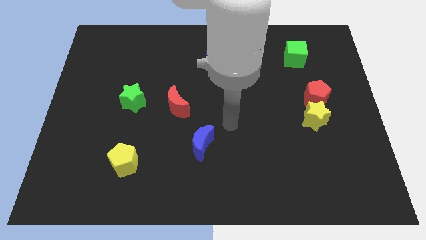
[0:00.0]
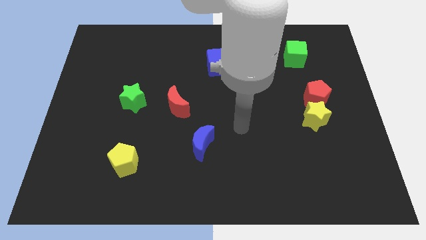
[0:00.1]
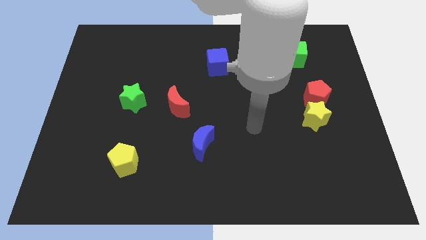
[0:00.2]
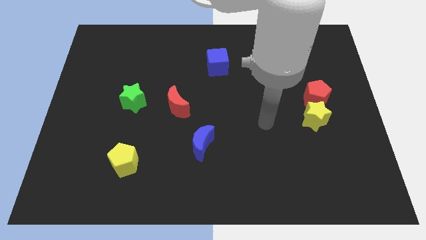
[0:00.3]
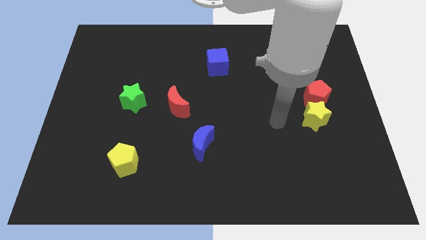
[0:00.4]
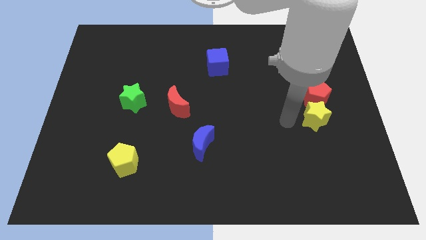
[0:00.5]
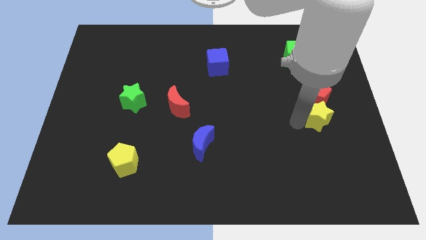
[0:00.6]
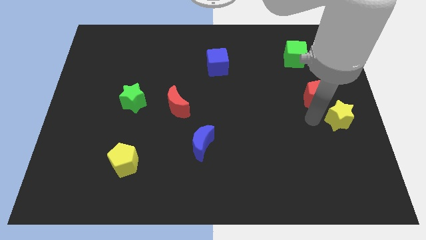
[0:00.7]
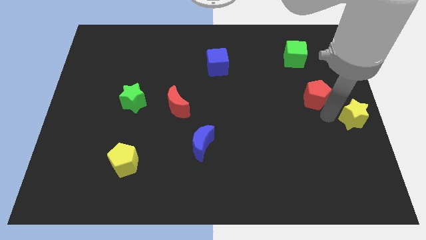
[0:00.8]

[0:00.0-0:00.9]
pull the red pentagon apart from the yellow star

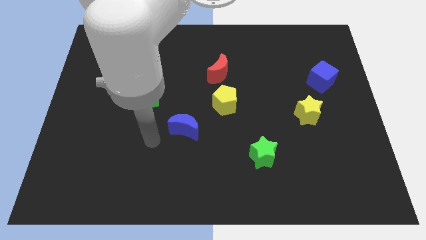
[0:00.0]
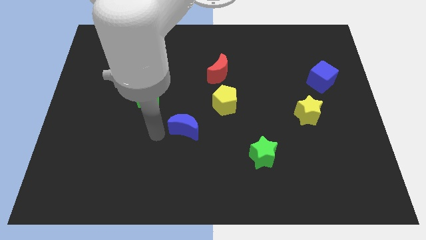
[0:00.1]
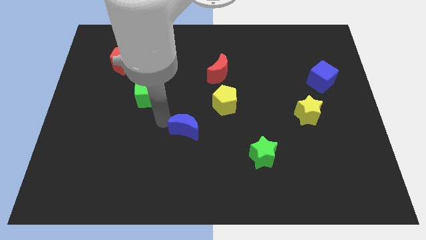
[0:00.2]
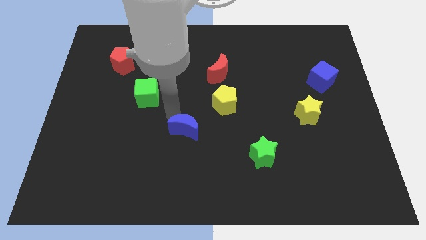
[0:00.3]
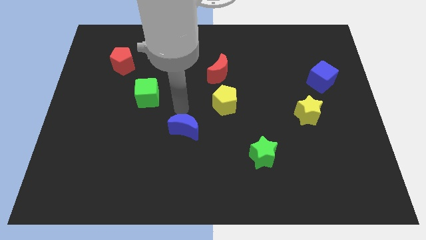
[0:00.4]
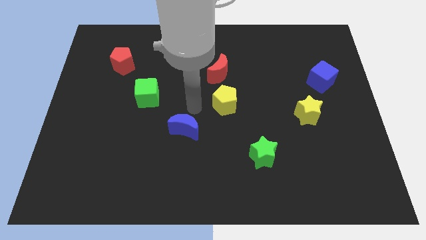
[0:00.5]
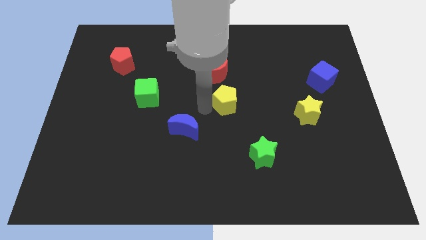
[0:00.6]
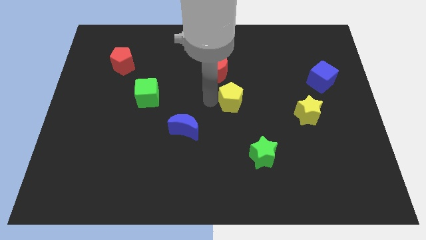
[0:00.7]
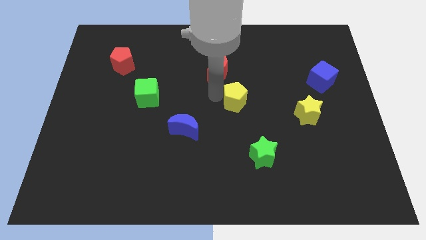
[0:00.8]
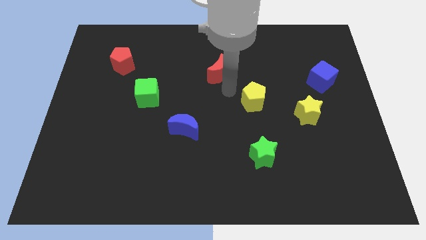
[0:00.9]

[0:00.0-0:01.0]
pull the red moon apart from the yellow pentagon

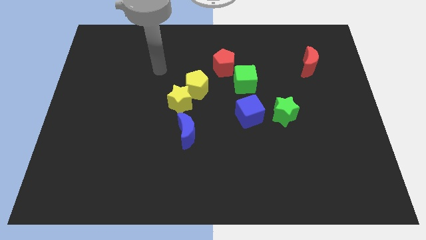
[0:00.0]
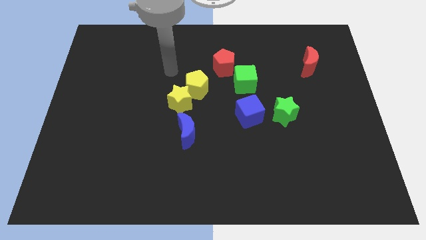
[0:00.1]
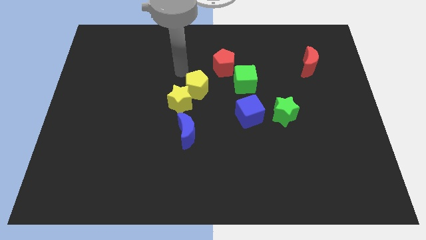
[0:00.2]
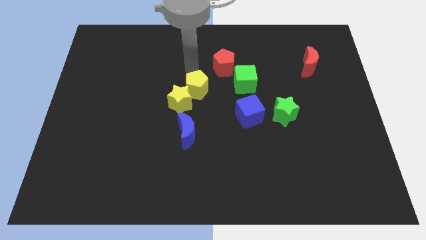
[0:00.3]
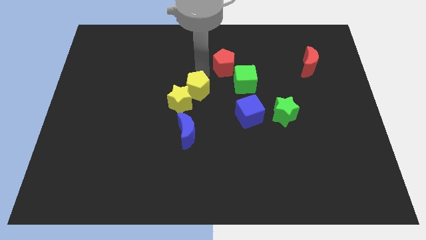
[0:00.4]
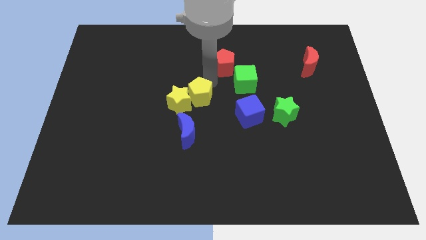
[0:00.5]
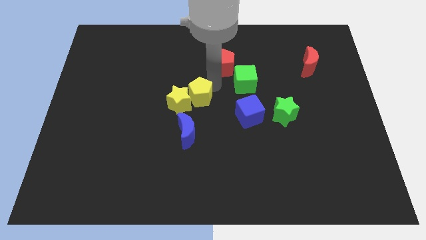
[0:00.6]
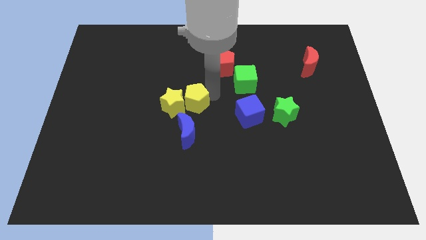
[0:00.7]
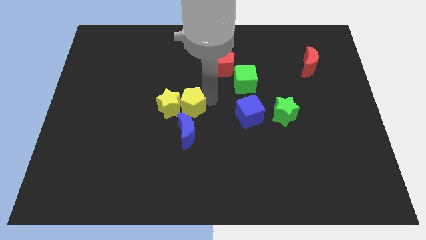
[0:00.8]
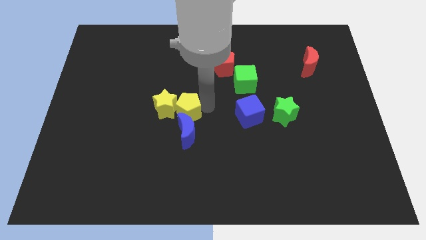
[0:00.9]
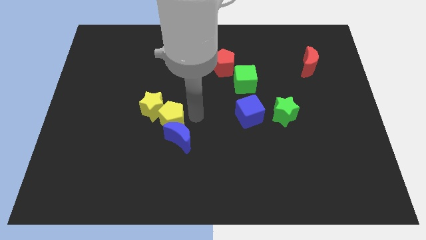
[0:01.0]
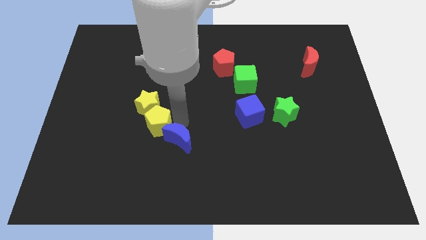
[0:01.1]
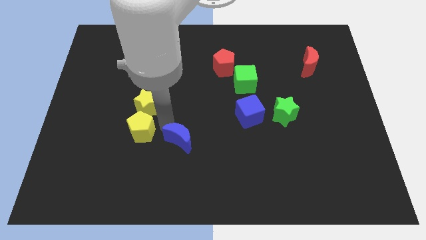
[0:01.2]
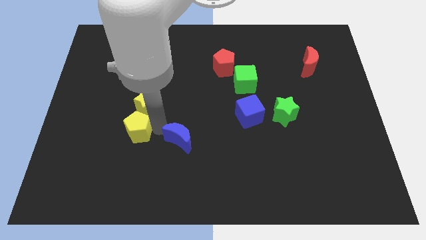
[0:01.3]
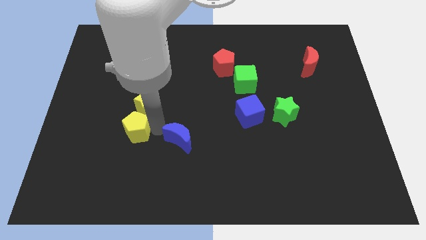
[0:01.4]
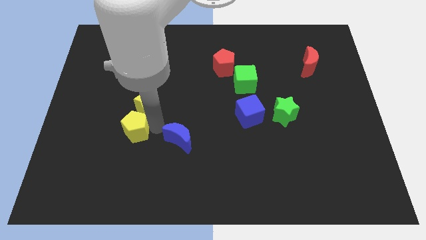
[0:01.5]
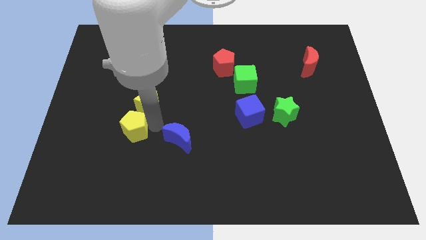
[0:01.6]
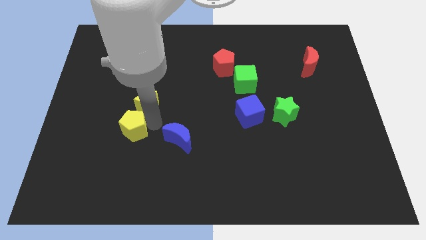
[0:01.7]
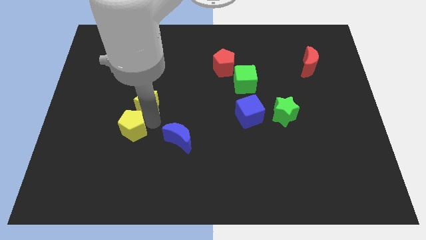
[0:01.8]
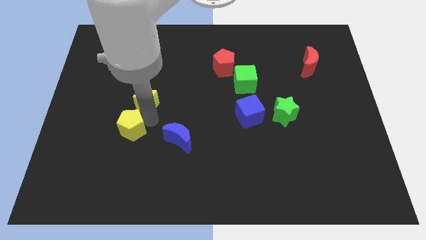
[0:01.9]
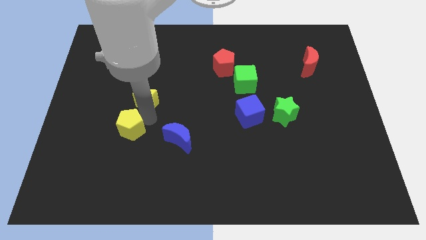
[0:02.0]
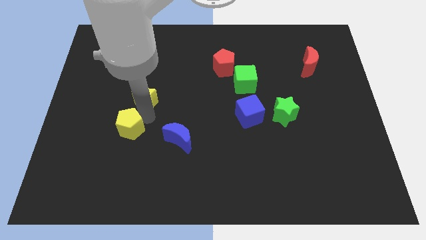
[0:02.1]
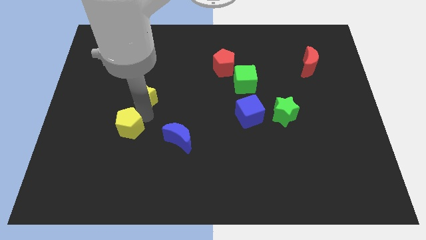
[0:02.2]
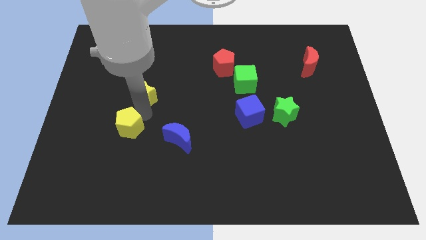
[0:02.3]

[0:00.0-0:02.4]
separate the yellow star from the yellow pentagon and blue moon

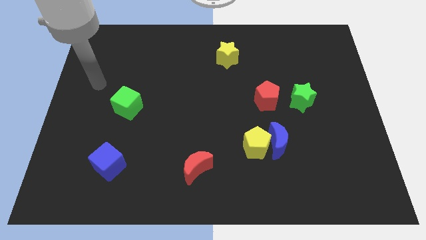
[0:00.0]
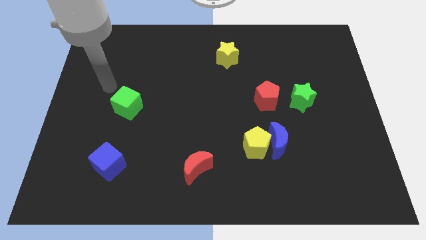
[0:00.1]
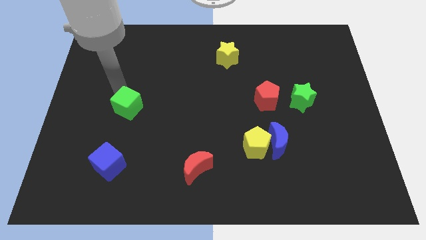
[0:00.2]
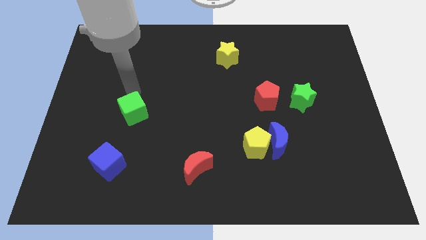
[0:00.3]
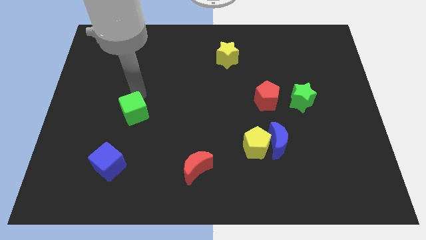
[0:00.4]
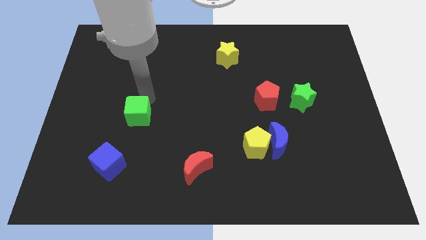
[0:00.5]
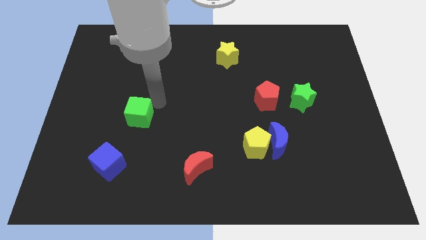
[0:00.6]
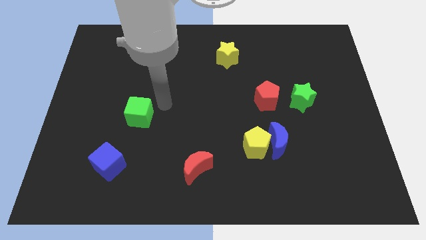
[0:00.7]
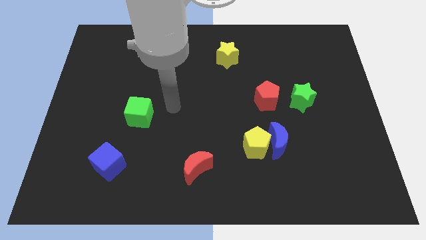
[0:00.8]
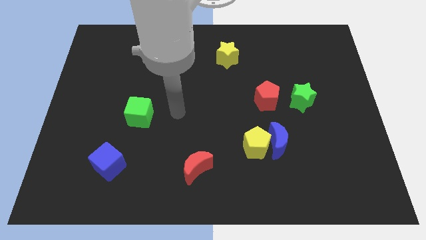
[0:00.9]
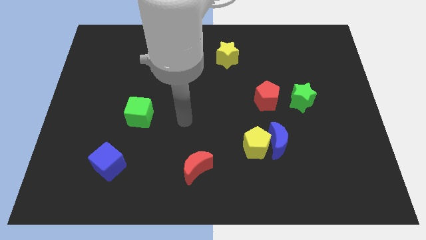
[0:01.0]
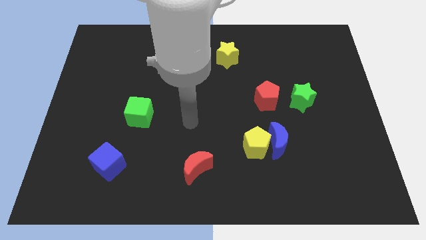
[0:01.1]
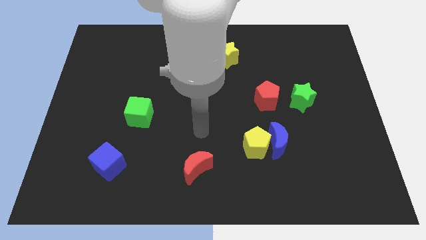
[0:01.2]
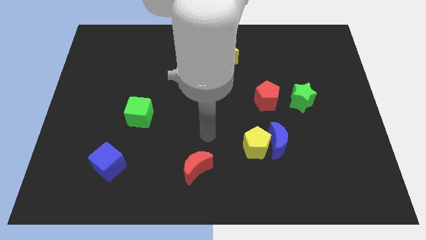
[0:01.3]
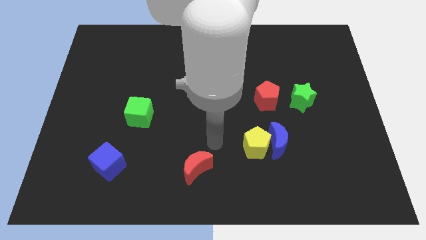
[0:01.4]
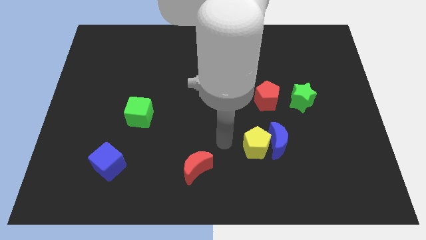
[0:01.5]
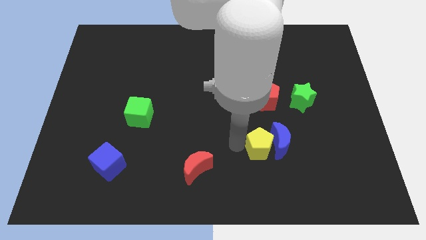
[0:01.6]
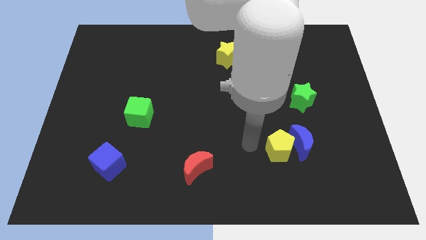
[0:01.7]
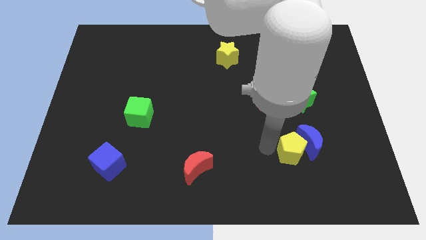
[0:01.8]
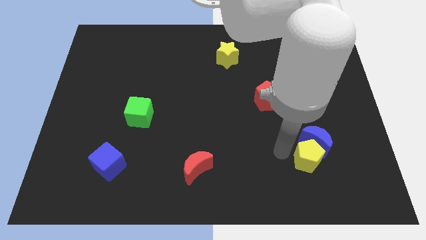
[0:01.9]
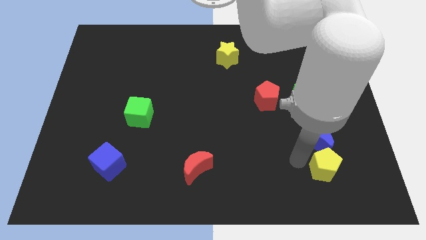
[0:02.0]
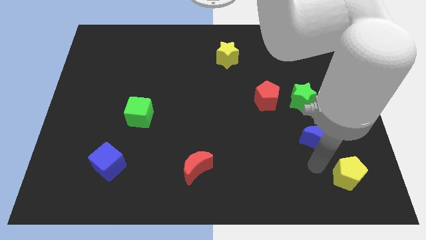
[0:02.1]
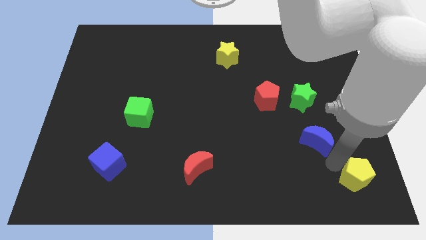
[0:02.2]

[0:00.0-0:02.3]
pull the blue moon apart from the yellow pentagon

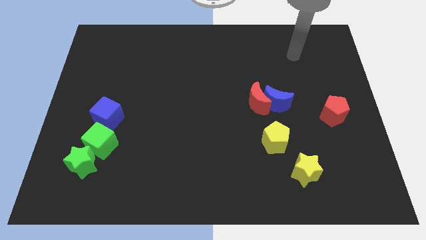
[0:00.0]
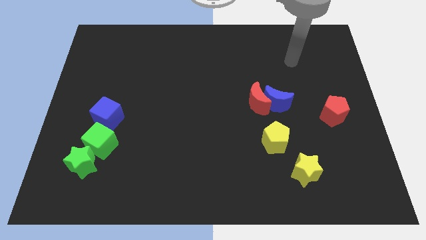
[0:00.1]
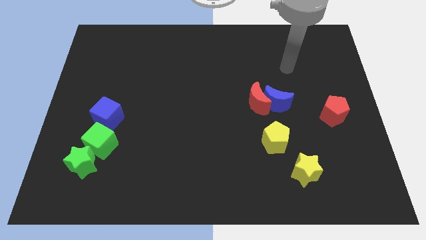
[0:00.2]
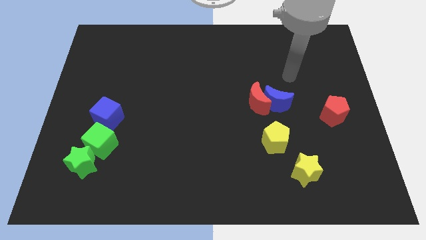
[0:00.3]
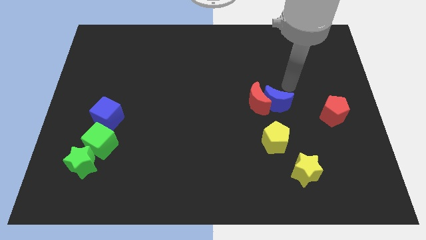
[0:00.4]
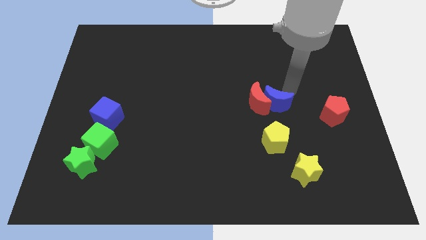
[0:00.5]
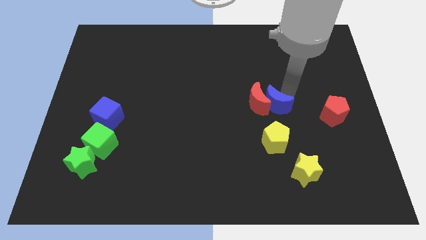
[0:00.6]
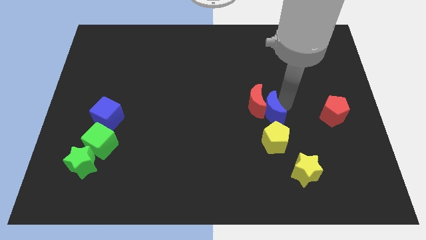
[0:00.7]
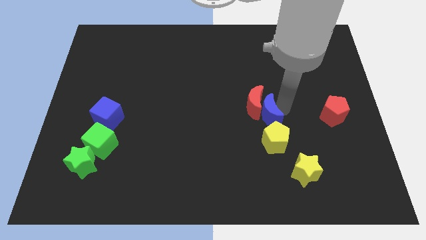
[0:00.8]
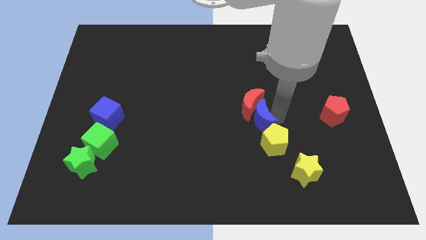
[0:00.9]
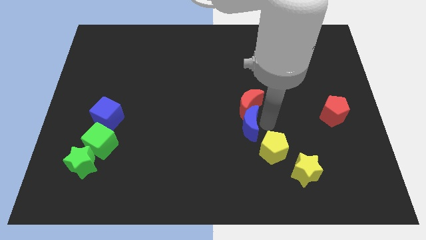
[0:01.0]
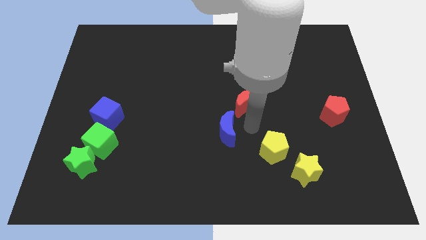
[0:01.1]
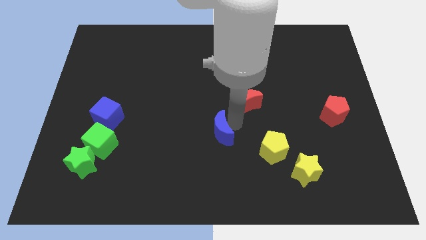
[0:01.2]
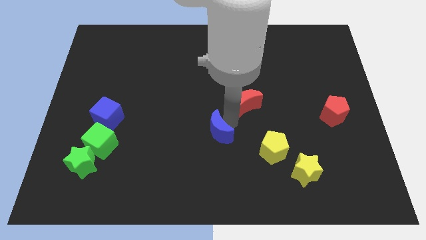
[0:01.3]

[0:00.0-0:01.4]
pull the red moon apart from the blue moon

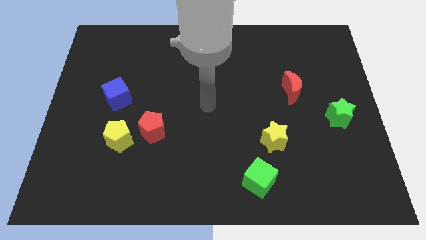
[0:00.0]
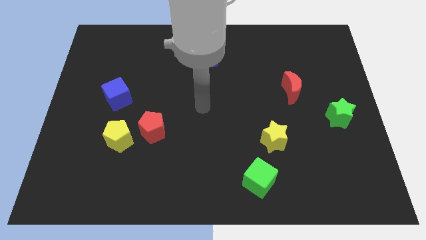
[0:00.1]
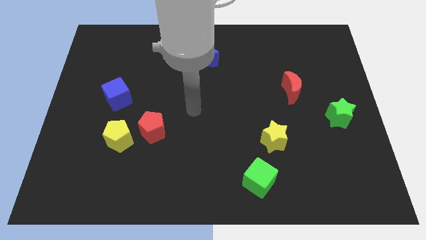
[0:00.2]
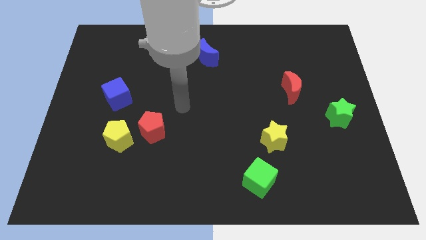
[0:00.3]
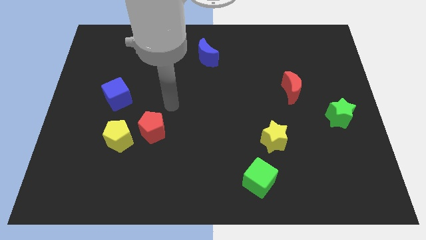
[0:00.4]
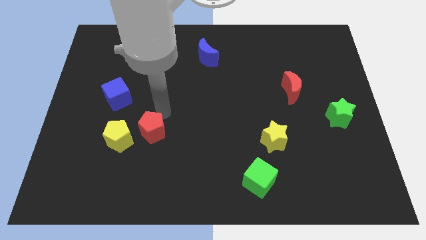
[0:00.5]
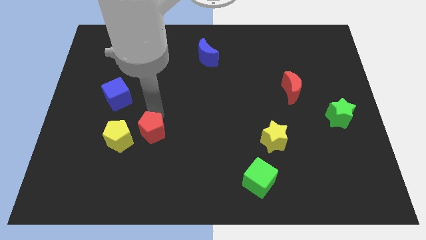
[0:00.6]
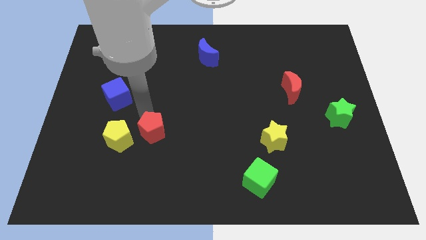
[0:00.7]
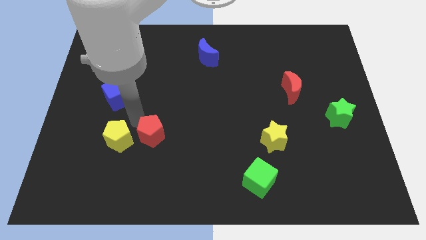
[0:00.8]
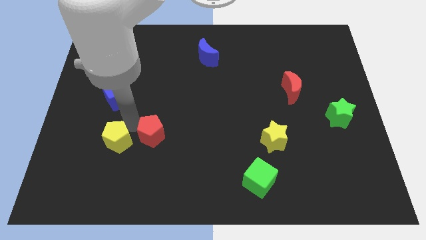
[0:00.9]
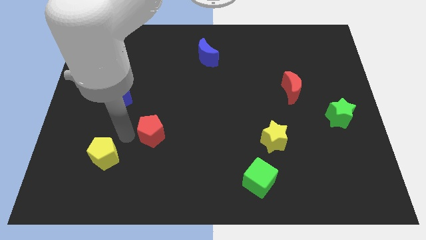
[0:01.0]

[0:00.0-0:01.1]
separate the red pentagon from the yellow pentagon
